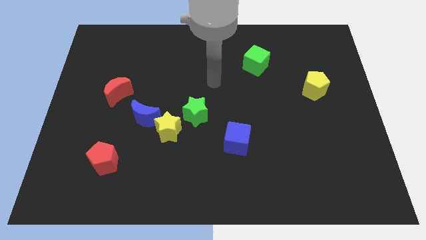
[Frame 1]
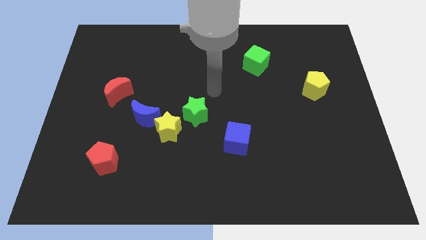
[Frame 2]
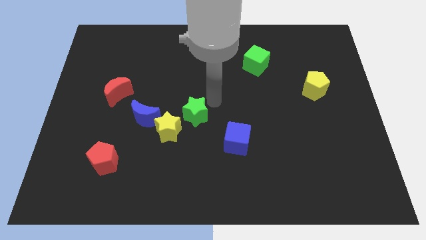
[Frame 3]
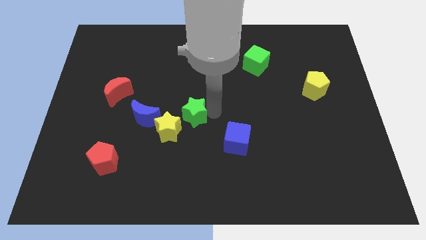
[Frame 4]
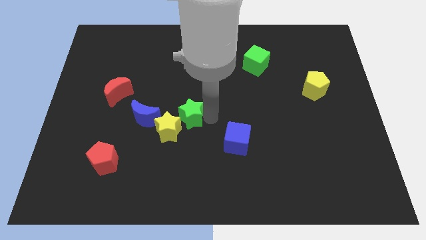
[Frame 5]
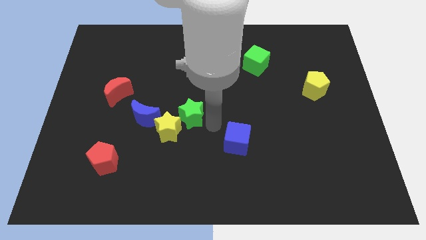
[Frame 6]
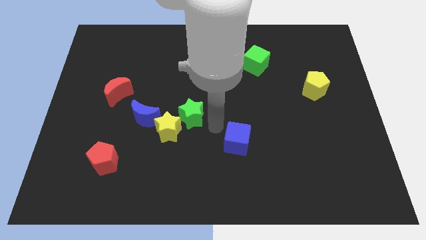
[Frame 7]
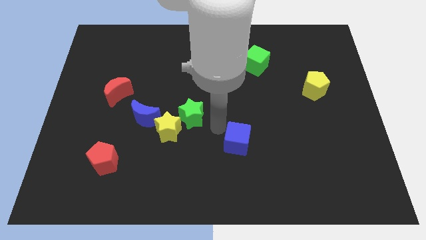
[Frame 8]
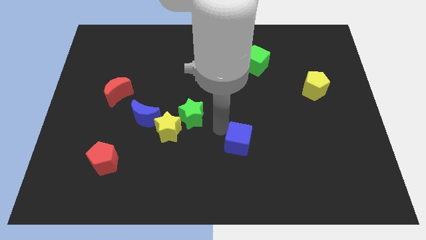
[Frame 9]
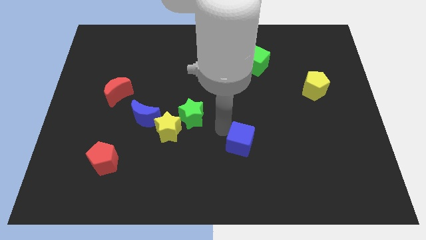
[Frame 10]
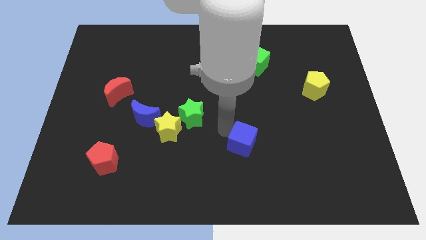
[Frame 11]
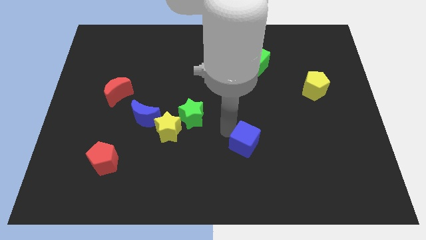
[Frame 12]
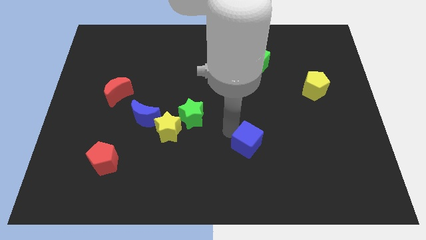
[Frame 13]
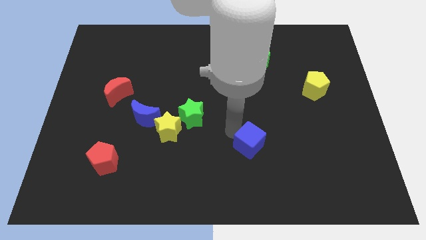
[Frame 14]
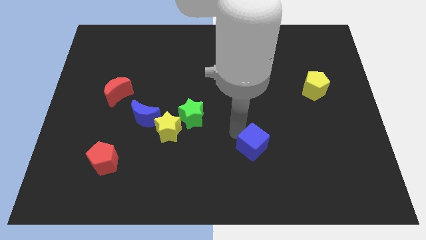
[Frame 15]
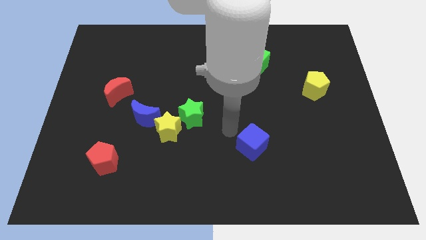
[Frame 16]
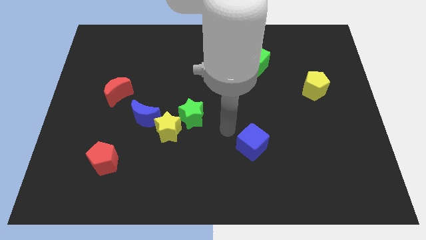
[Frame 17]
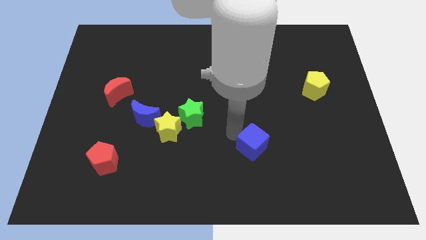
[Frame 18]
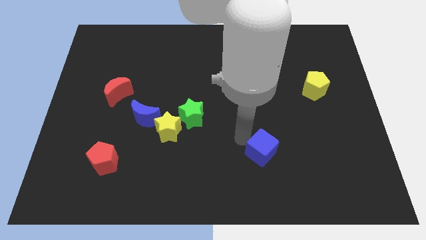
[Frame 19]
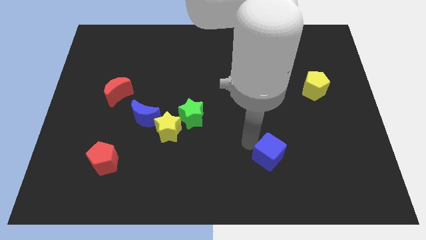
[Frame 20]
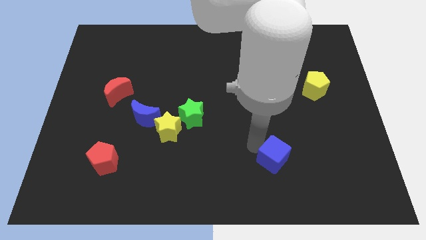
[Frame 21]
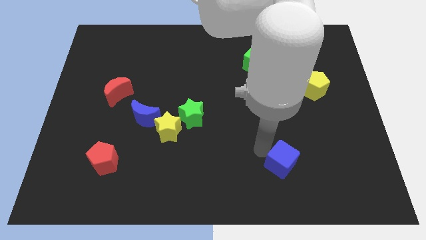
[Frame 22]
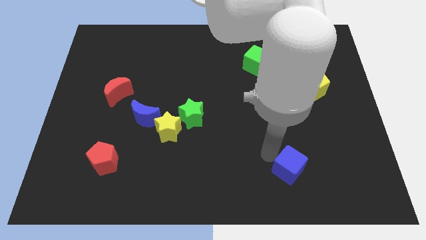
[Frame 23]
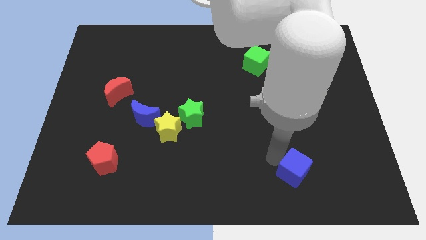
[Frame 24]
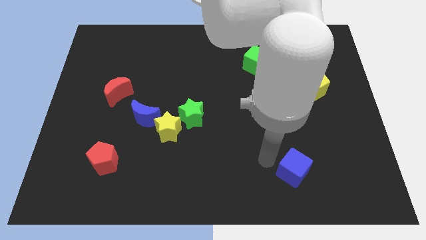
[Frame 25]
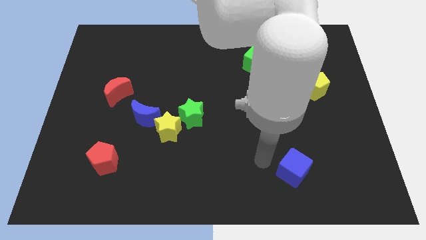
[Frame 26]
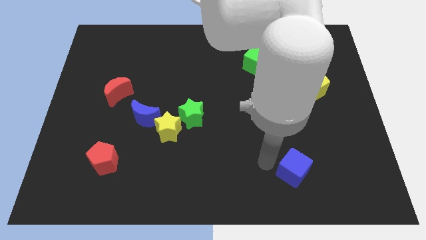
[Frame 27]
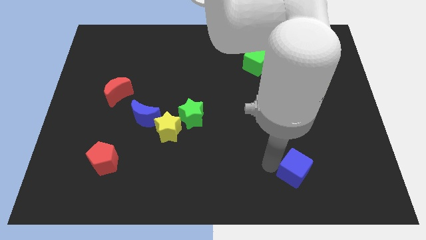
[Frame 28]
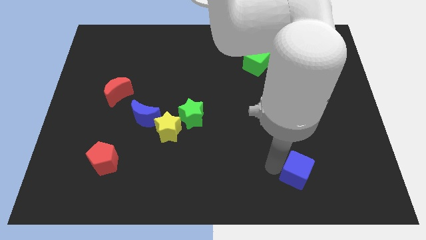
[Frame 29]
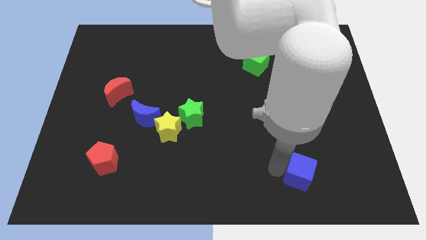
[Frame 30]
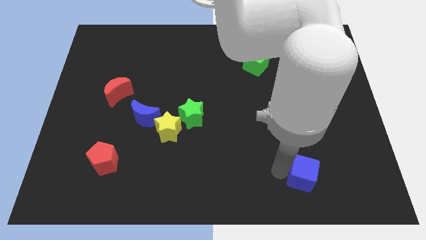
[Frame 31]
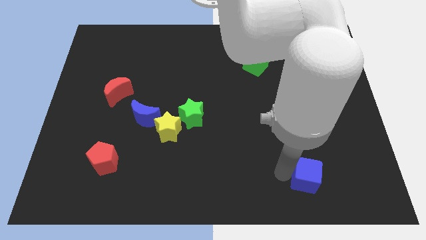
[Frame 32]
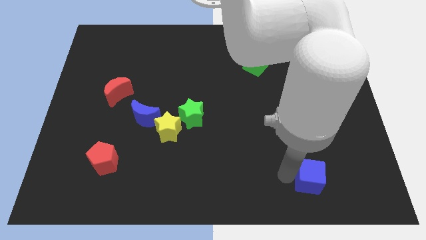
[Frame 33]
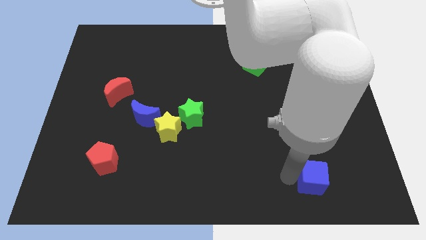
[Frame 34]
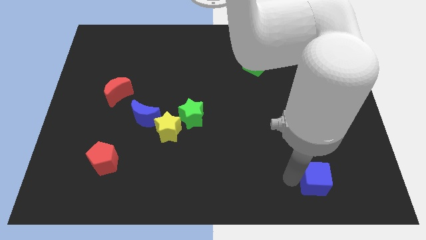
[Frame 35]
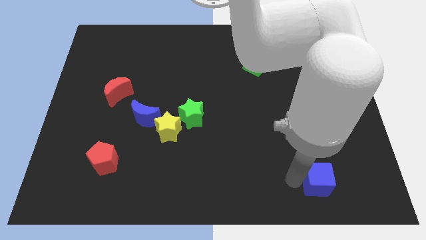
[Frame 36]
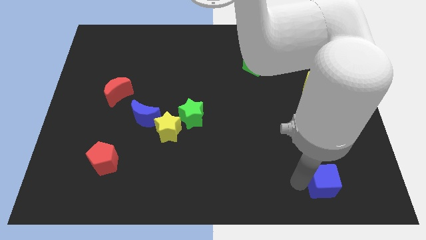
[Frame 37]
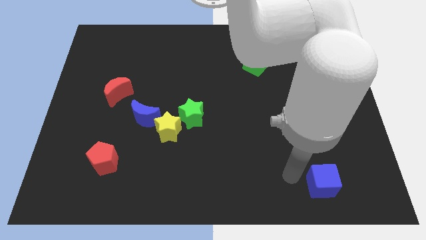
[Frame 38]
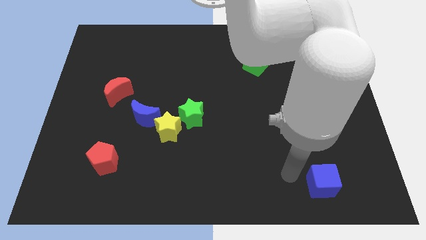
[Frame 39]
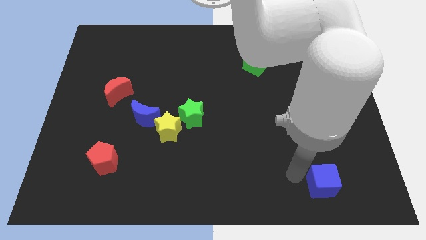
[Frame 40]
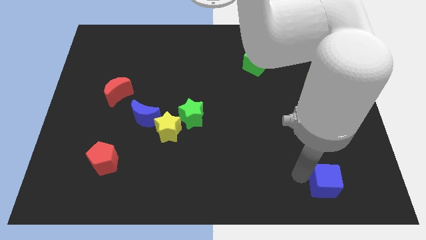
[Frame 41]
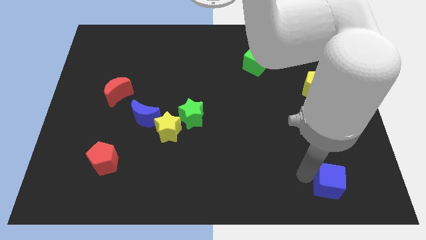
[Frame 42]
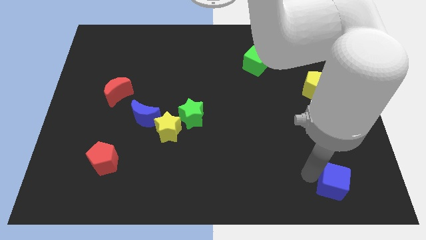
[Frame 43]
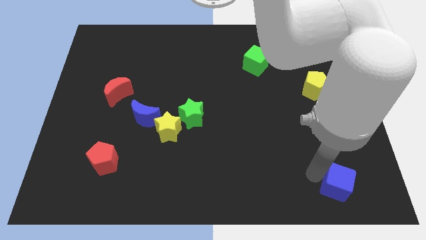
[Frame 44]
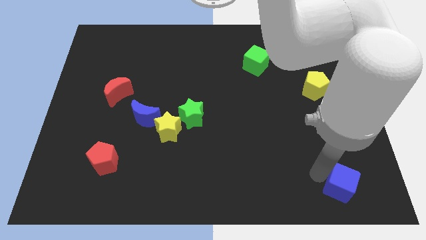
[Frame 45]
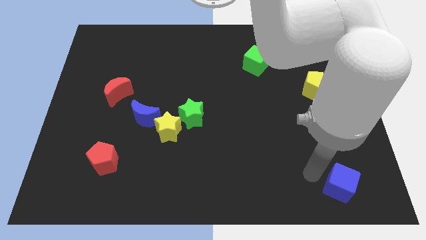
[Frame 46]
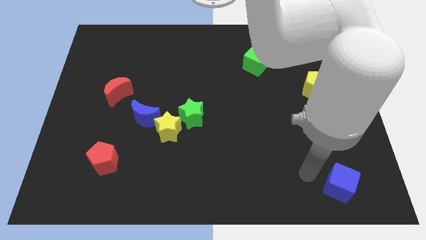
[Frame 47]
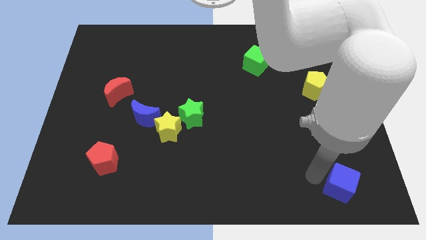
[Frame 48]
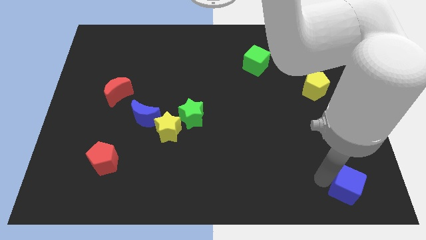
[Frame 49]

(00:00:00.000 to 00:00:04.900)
put the blue cube to the bottom right of the board

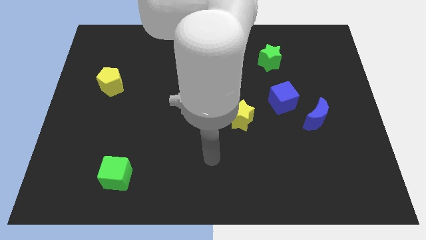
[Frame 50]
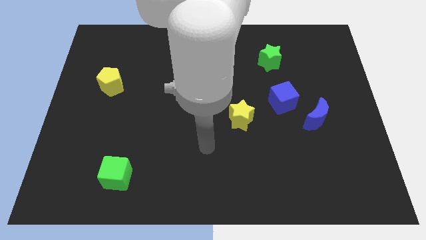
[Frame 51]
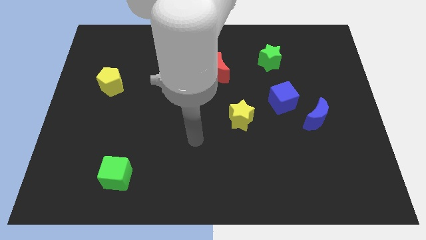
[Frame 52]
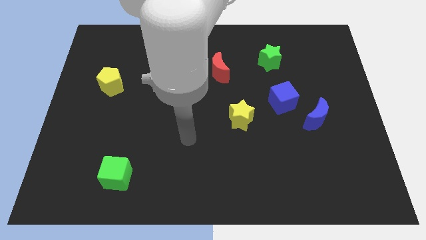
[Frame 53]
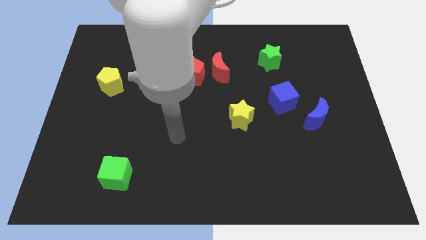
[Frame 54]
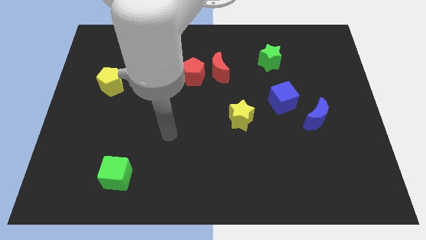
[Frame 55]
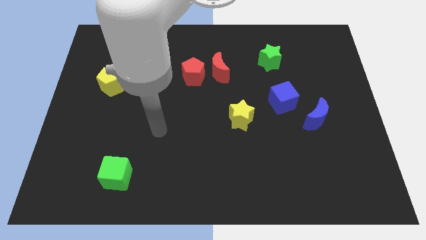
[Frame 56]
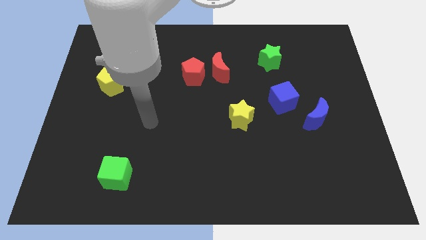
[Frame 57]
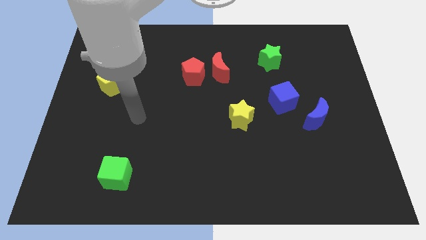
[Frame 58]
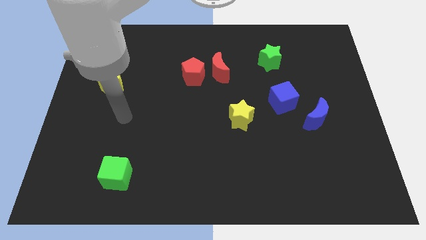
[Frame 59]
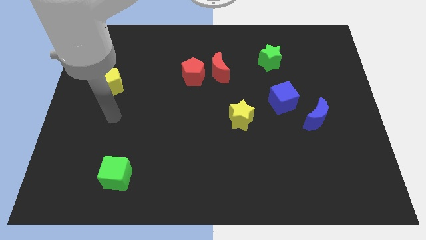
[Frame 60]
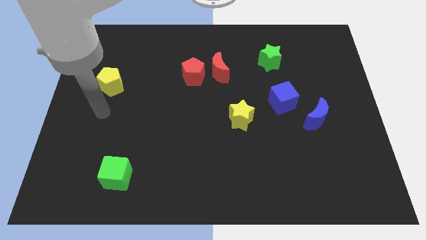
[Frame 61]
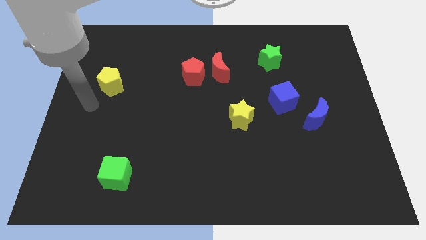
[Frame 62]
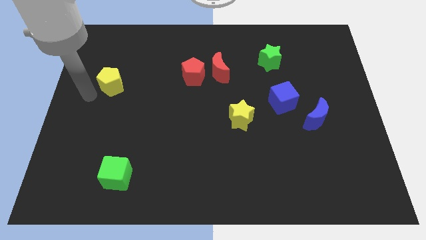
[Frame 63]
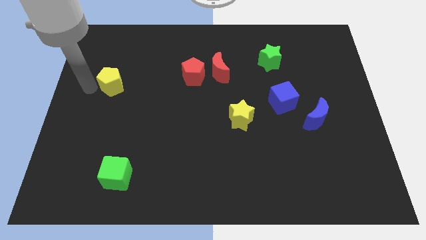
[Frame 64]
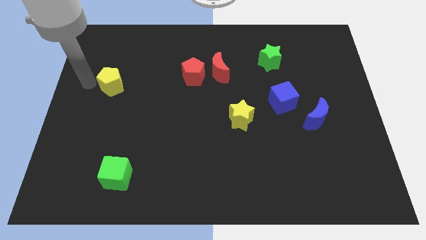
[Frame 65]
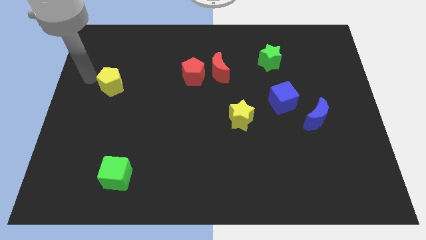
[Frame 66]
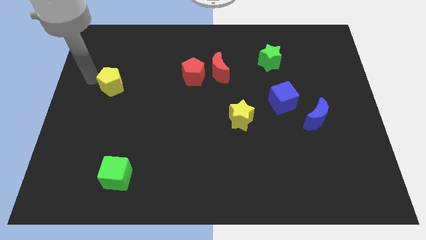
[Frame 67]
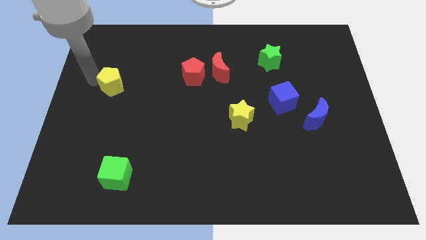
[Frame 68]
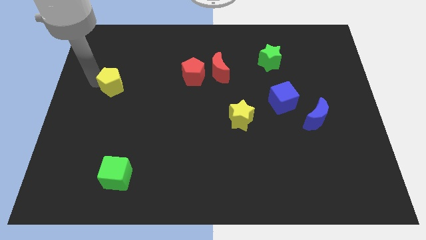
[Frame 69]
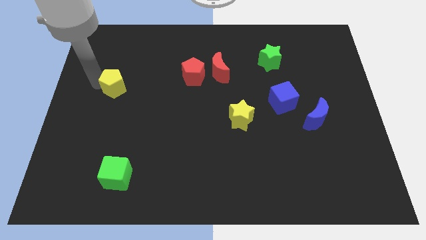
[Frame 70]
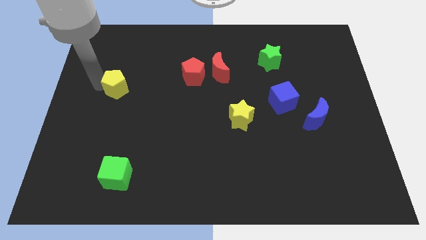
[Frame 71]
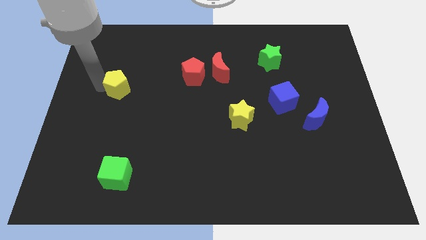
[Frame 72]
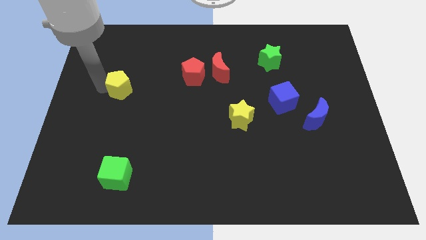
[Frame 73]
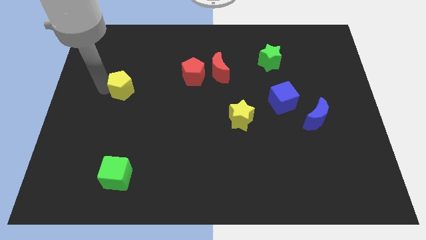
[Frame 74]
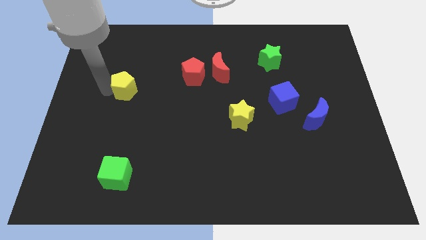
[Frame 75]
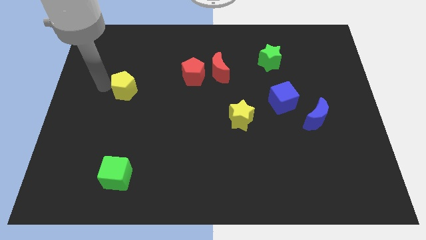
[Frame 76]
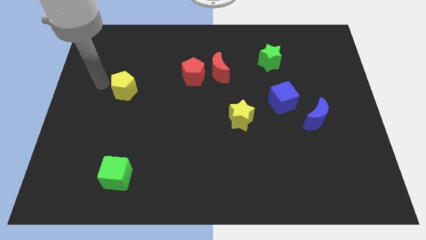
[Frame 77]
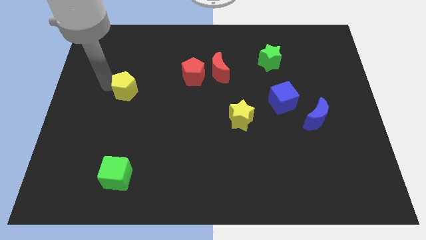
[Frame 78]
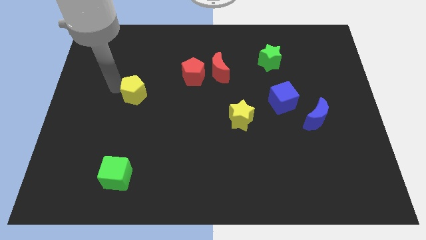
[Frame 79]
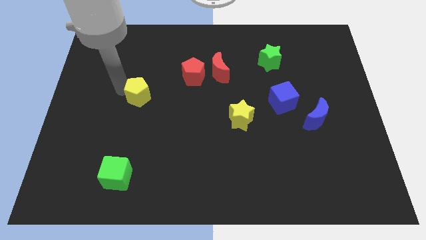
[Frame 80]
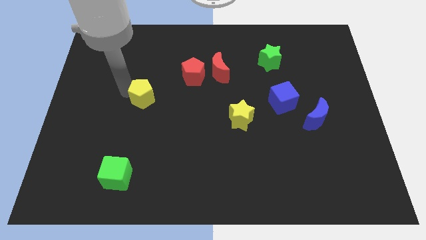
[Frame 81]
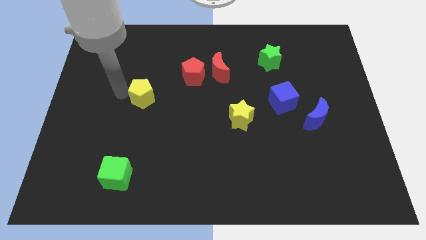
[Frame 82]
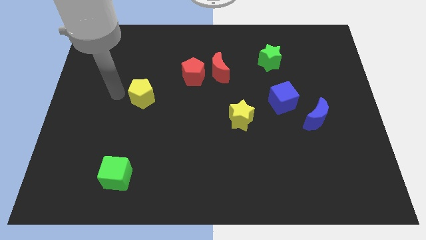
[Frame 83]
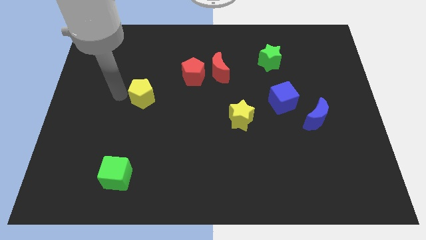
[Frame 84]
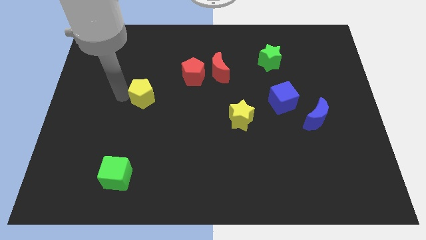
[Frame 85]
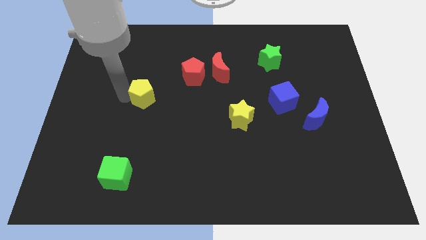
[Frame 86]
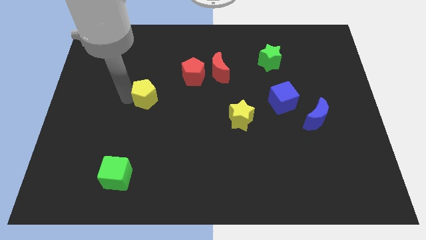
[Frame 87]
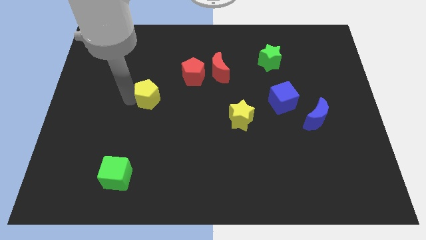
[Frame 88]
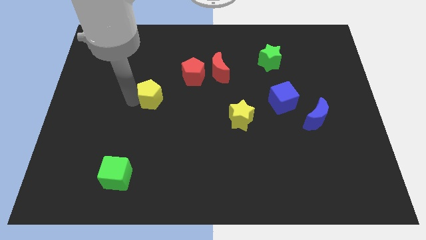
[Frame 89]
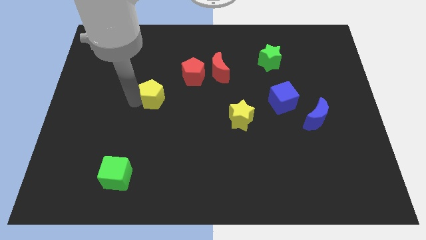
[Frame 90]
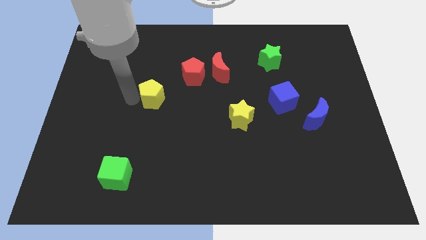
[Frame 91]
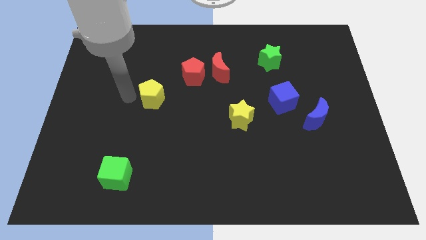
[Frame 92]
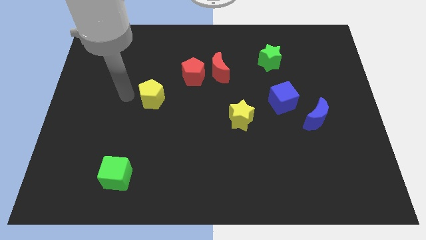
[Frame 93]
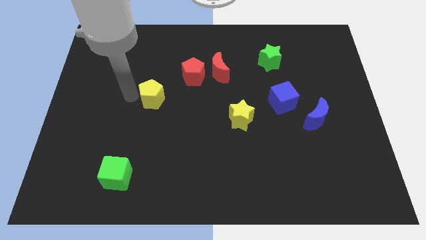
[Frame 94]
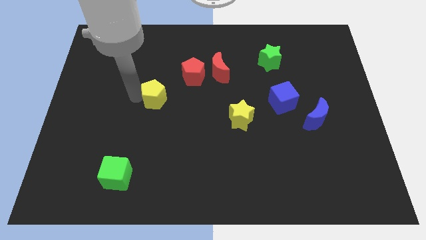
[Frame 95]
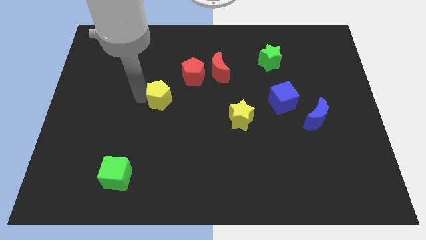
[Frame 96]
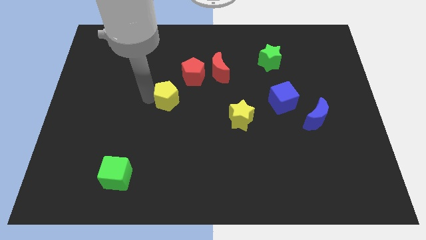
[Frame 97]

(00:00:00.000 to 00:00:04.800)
slide the yellow pentagon to the middle of the board
